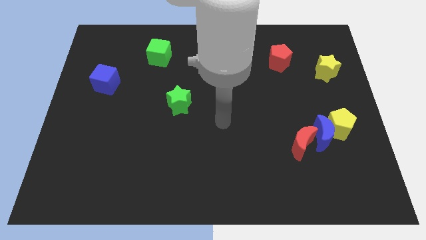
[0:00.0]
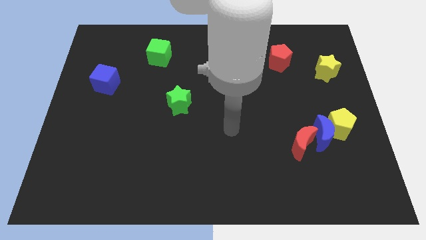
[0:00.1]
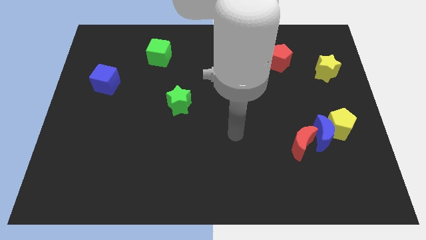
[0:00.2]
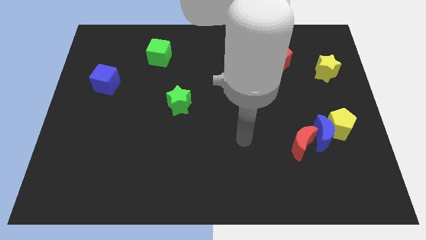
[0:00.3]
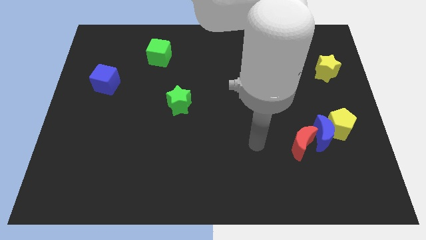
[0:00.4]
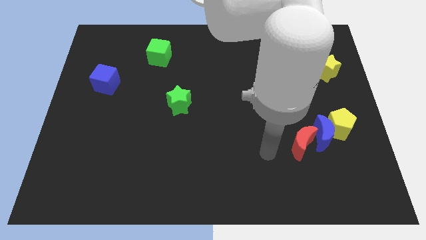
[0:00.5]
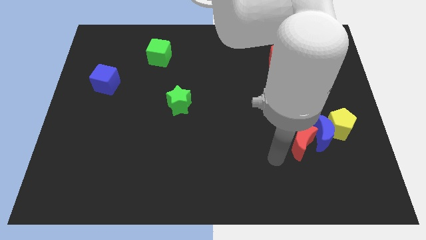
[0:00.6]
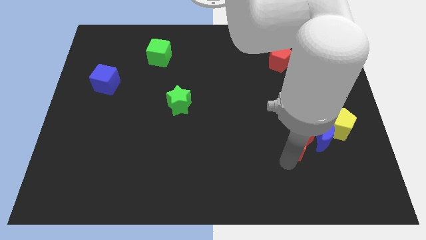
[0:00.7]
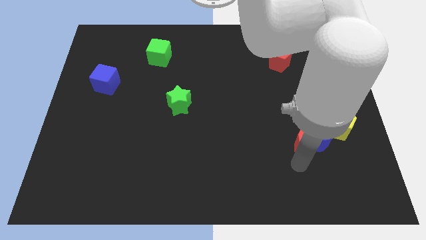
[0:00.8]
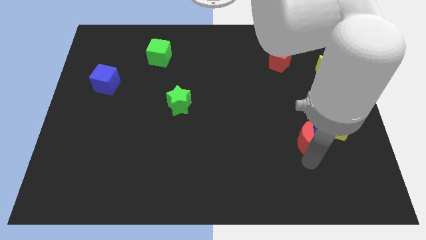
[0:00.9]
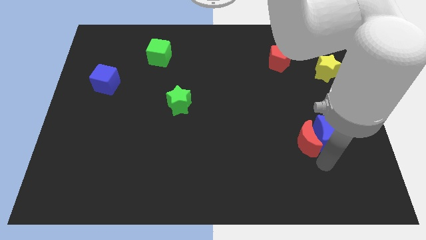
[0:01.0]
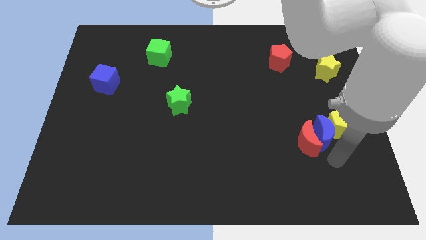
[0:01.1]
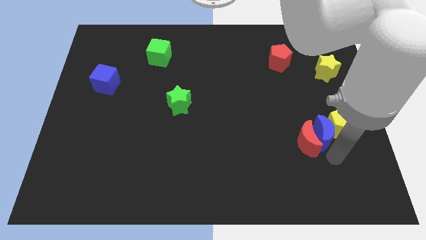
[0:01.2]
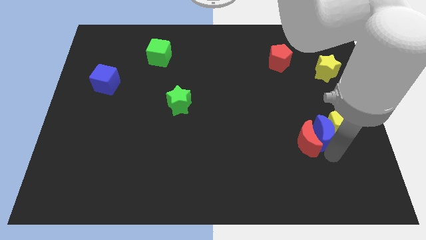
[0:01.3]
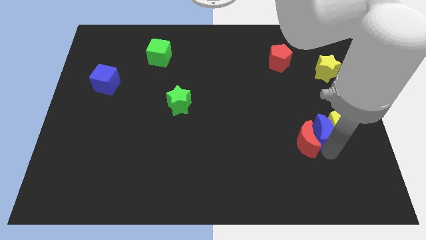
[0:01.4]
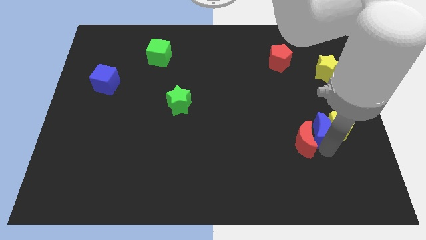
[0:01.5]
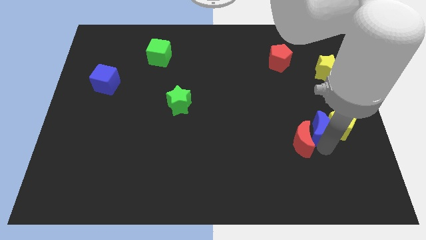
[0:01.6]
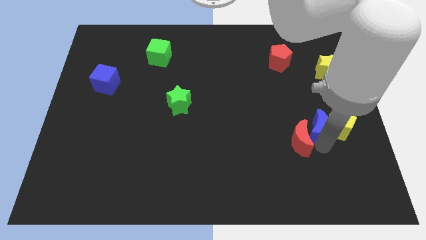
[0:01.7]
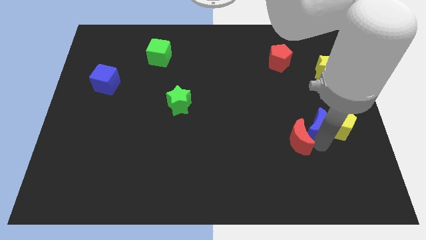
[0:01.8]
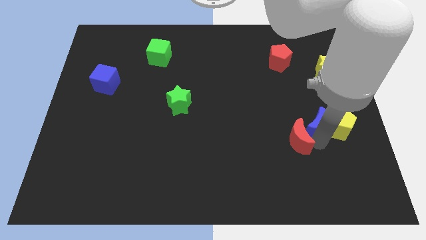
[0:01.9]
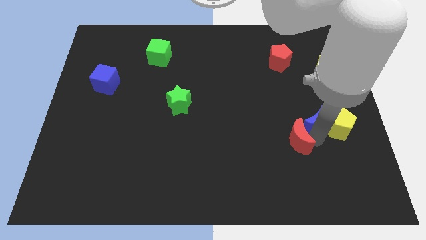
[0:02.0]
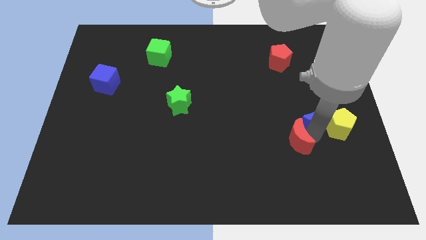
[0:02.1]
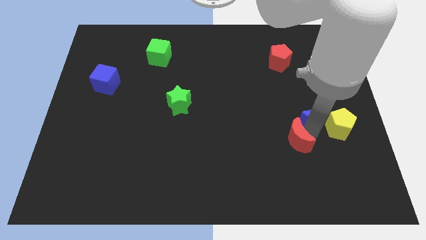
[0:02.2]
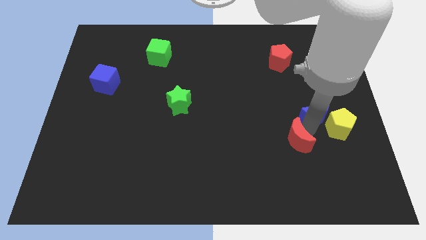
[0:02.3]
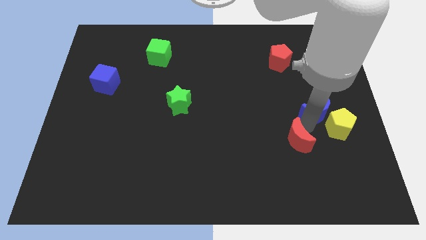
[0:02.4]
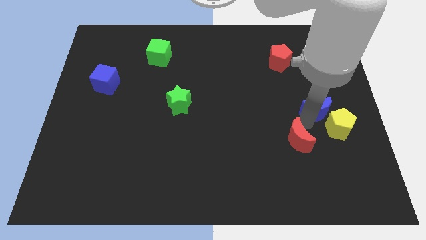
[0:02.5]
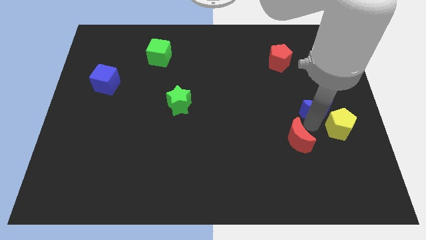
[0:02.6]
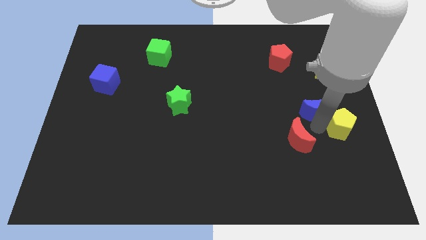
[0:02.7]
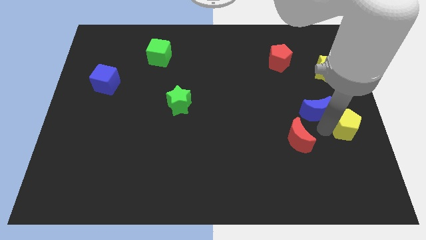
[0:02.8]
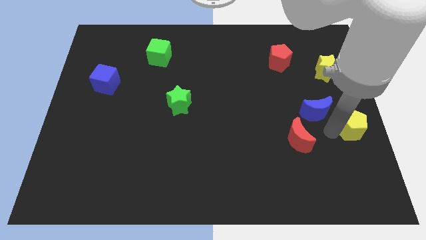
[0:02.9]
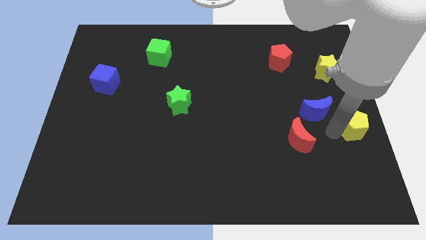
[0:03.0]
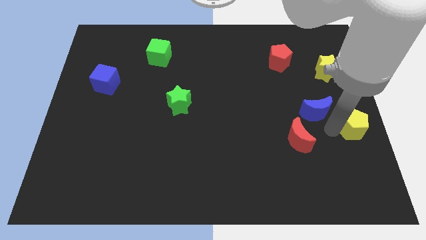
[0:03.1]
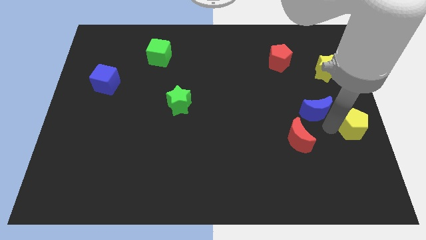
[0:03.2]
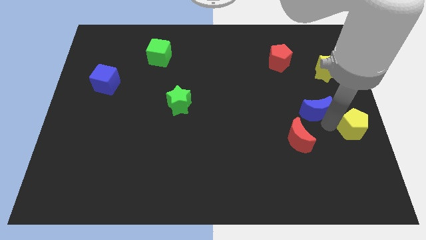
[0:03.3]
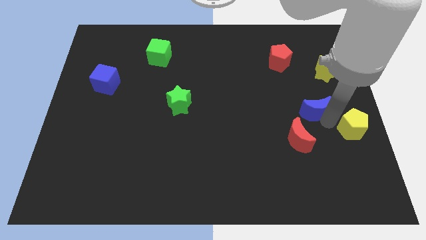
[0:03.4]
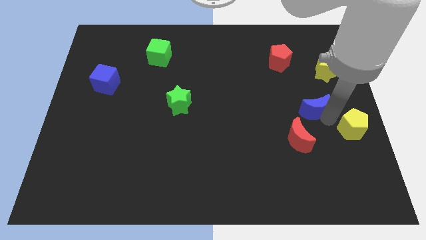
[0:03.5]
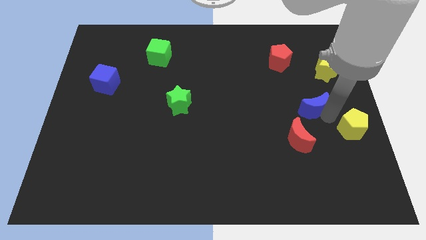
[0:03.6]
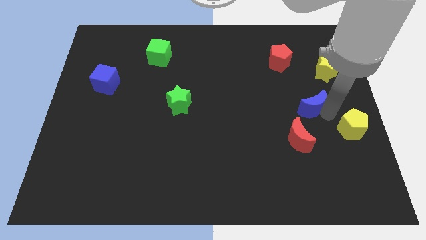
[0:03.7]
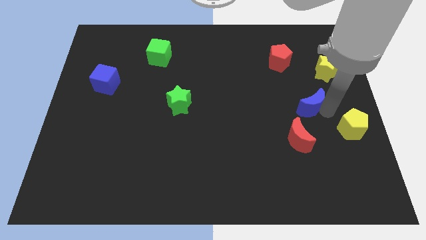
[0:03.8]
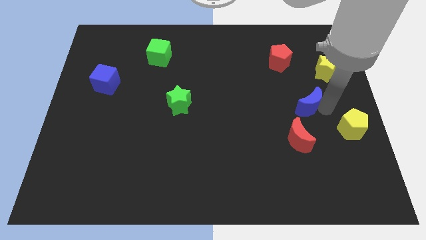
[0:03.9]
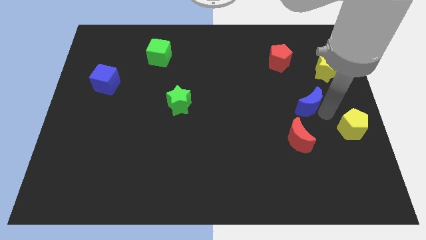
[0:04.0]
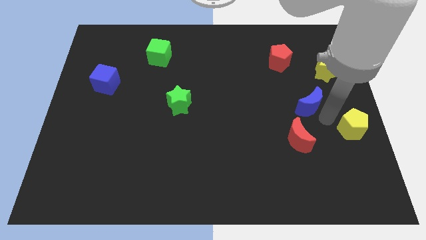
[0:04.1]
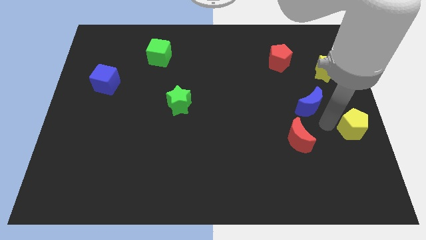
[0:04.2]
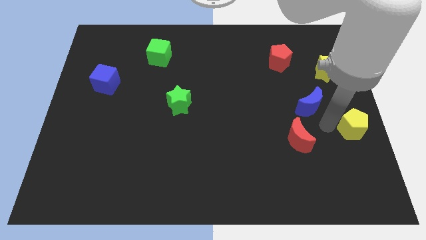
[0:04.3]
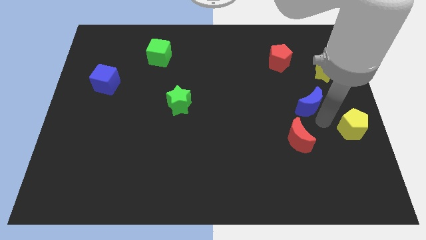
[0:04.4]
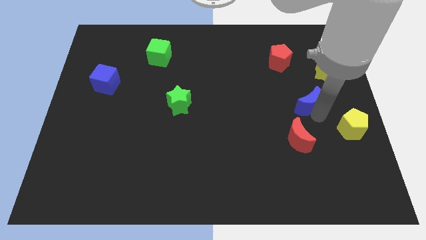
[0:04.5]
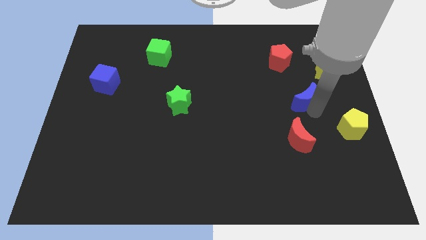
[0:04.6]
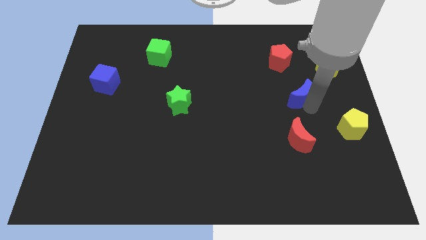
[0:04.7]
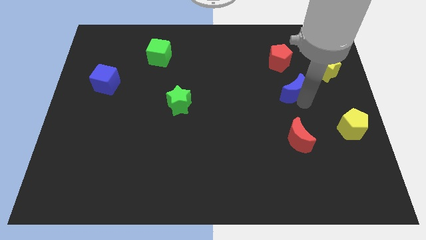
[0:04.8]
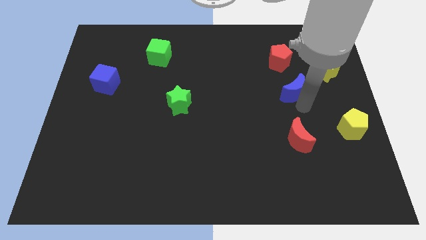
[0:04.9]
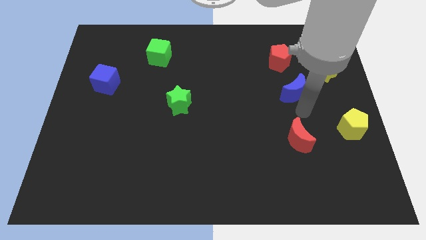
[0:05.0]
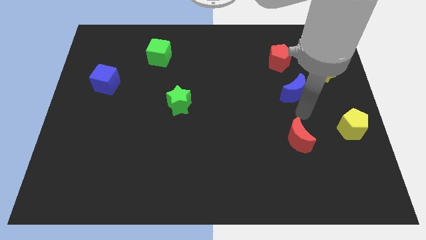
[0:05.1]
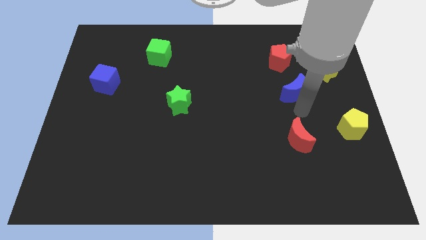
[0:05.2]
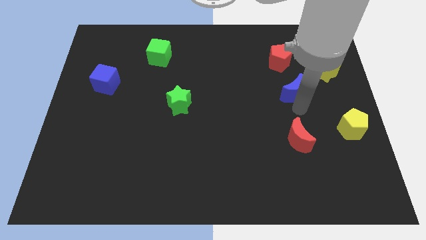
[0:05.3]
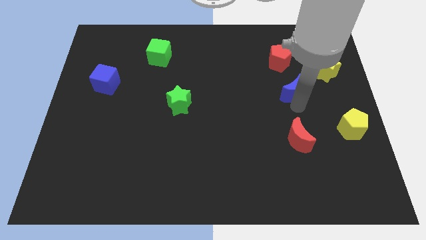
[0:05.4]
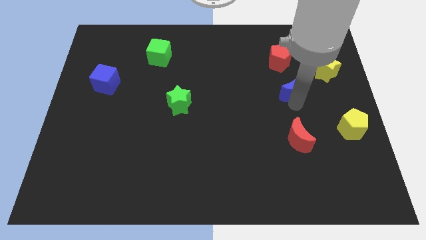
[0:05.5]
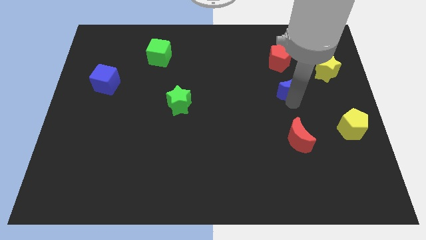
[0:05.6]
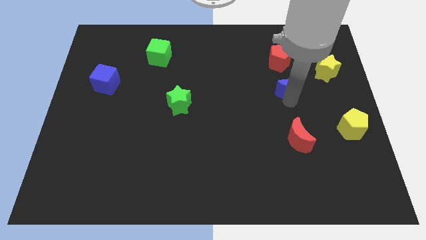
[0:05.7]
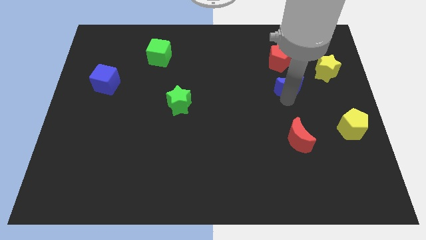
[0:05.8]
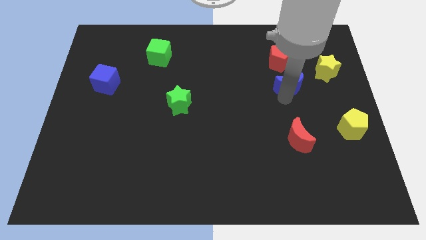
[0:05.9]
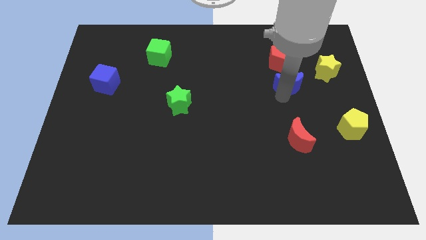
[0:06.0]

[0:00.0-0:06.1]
push the blue moon to the left side of the yellow star

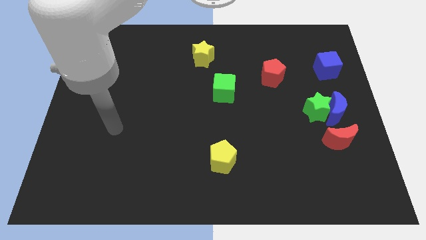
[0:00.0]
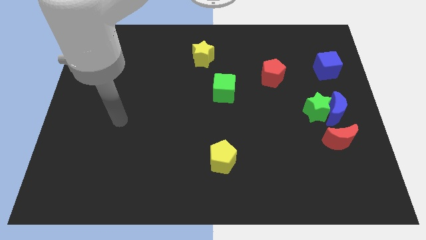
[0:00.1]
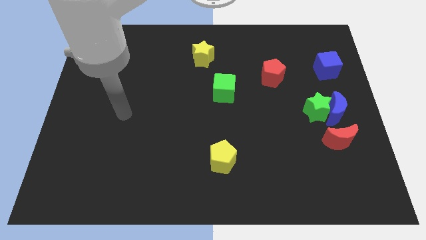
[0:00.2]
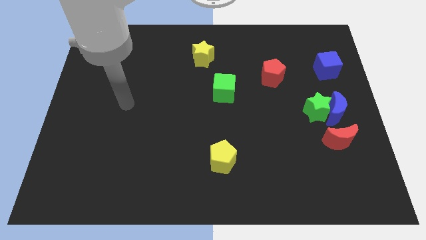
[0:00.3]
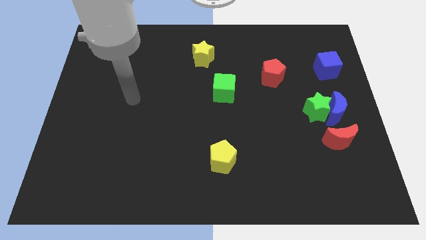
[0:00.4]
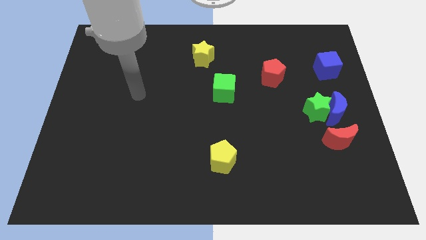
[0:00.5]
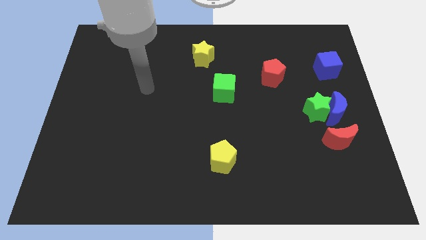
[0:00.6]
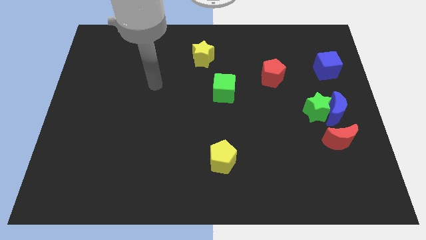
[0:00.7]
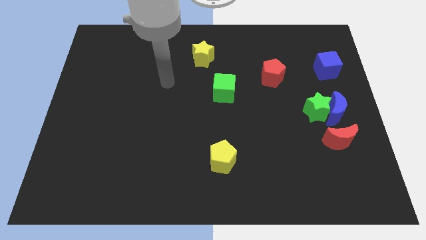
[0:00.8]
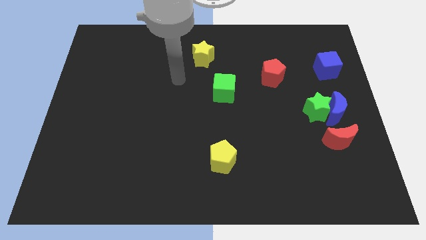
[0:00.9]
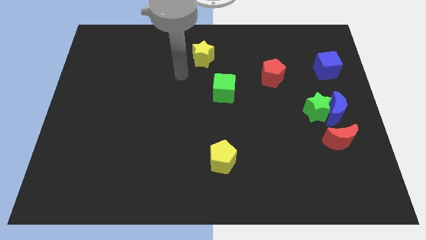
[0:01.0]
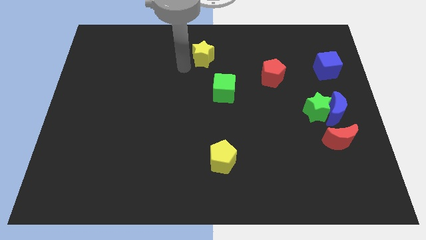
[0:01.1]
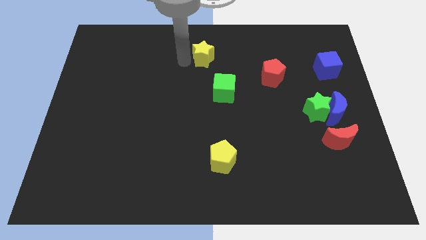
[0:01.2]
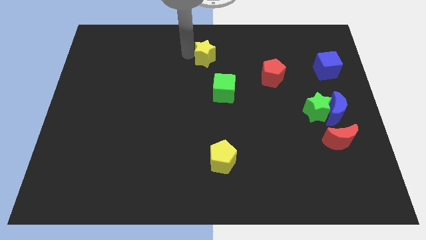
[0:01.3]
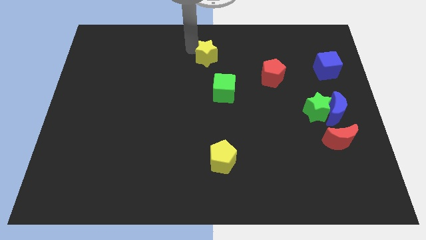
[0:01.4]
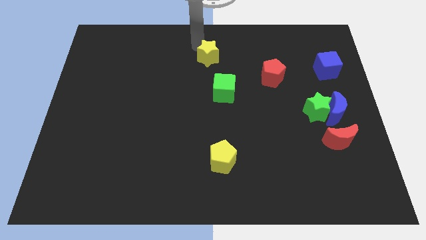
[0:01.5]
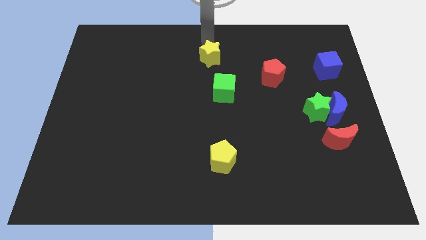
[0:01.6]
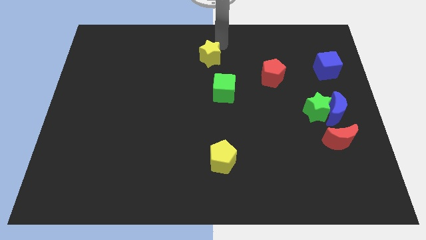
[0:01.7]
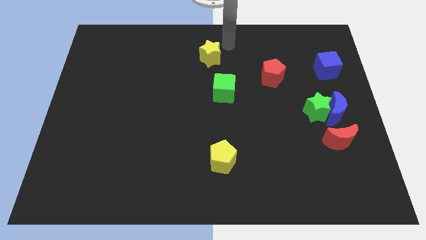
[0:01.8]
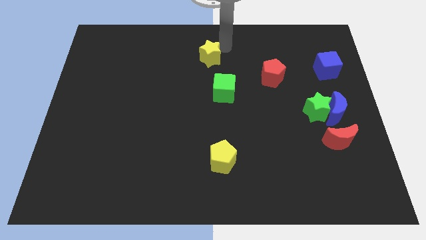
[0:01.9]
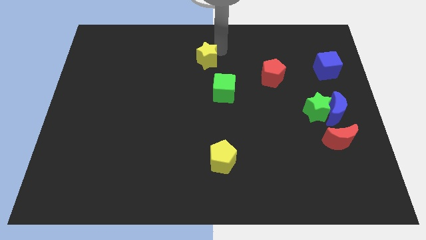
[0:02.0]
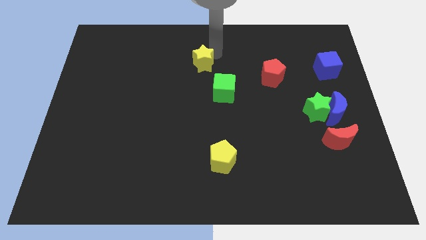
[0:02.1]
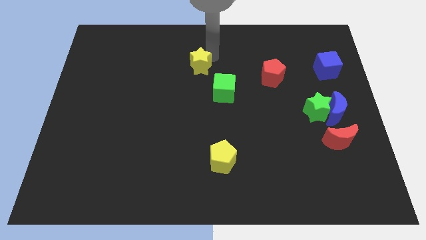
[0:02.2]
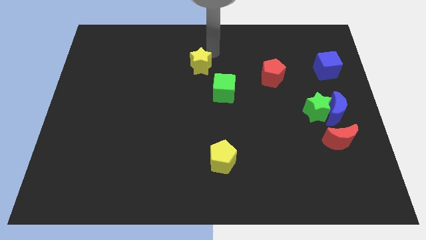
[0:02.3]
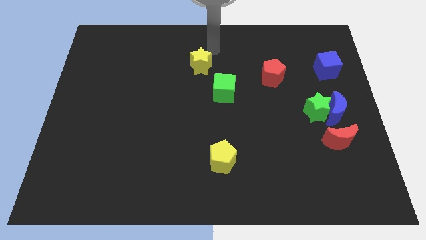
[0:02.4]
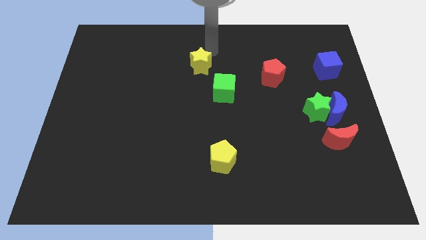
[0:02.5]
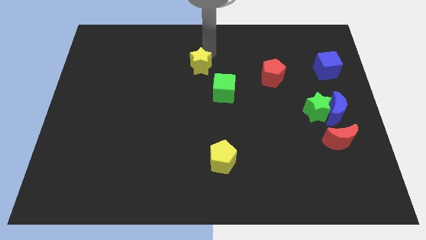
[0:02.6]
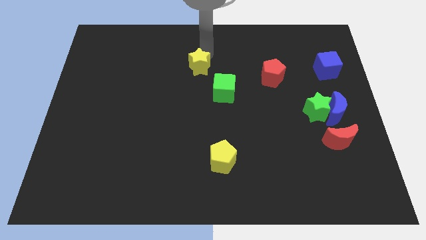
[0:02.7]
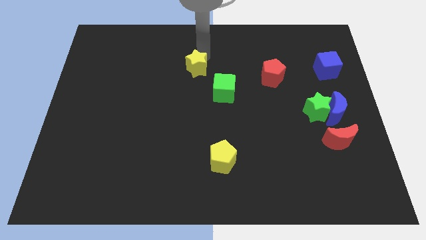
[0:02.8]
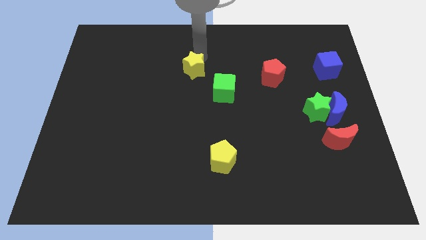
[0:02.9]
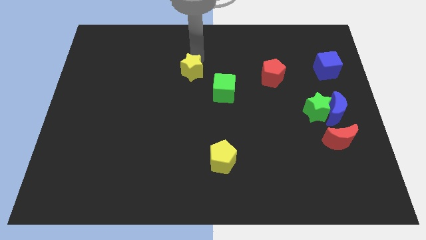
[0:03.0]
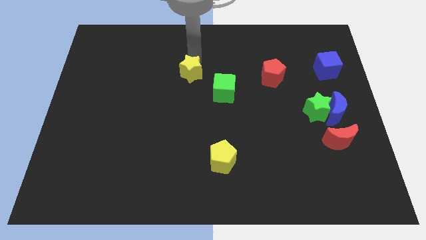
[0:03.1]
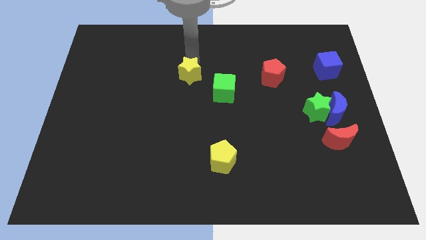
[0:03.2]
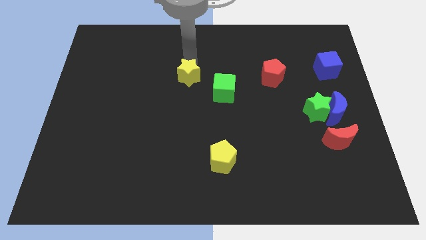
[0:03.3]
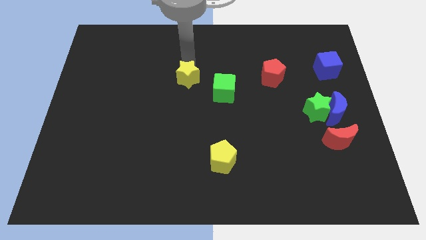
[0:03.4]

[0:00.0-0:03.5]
slide the yellow star left of the green cube
